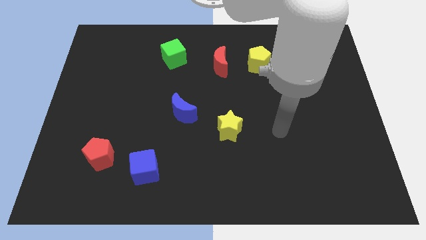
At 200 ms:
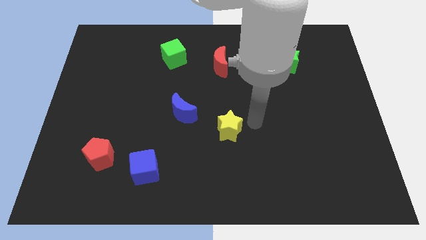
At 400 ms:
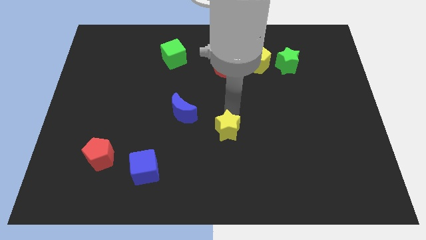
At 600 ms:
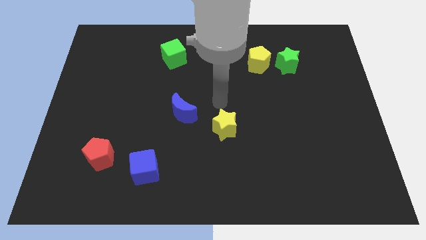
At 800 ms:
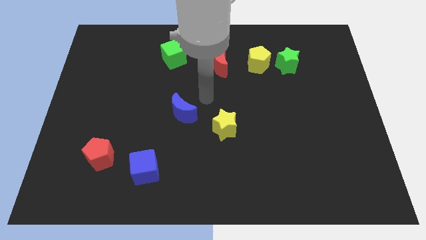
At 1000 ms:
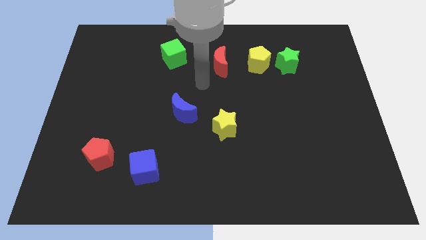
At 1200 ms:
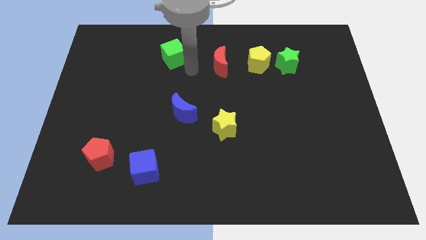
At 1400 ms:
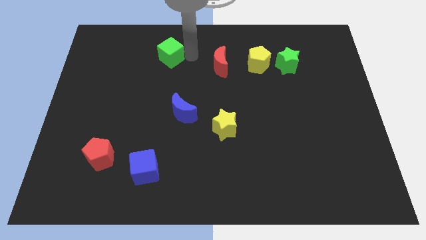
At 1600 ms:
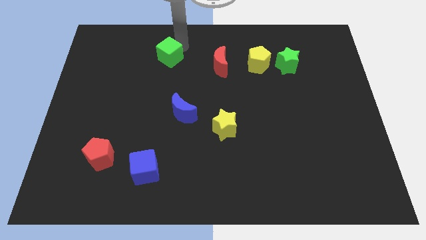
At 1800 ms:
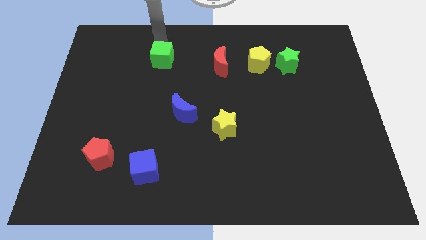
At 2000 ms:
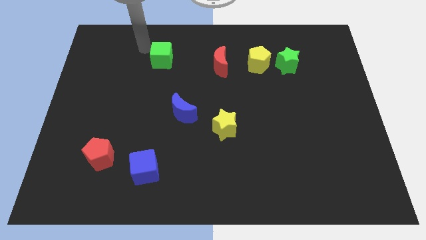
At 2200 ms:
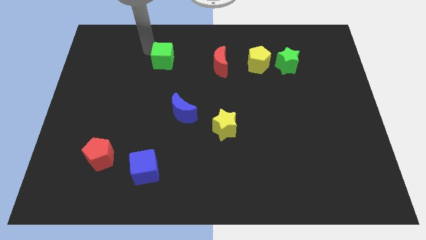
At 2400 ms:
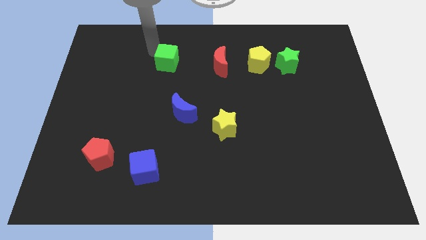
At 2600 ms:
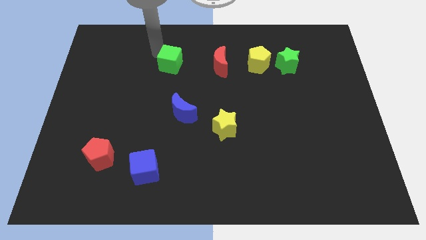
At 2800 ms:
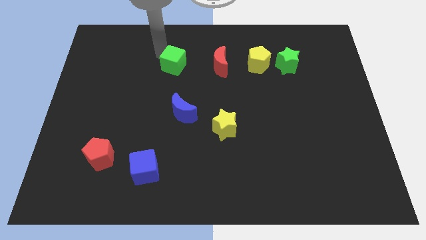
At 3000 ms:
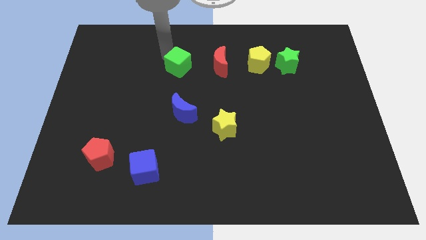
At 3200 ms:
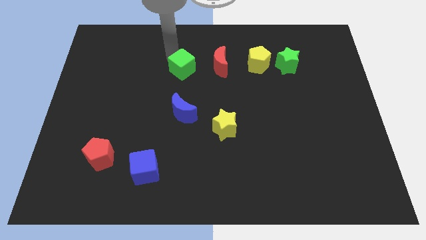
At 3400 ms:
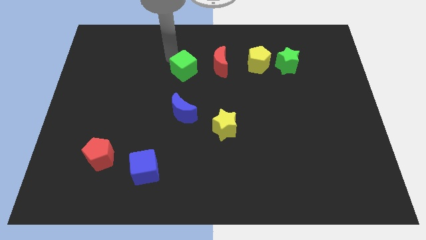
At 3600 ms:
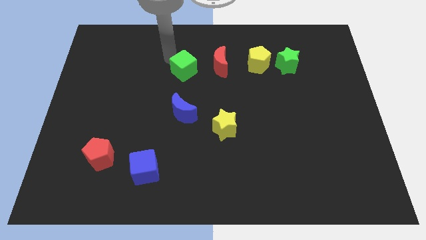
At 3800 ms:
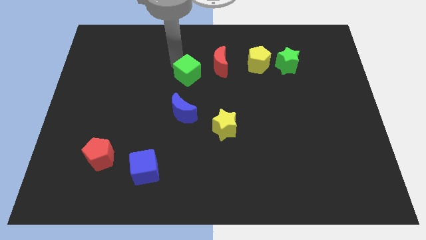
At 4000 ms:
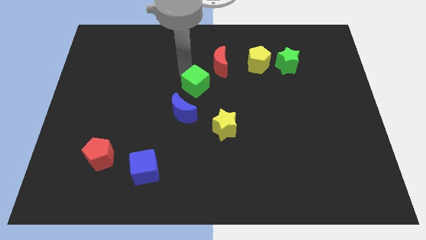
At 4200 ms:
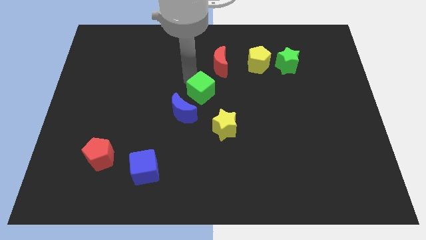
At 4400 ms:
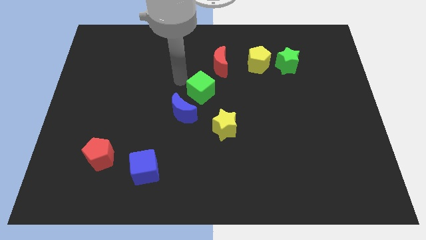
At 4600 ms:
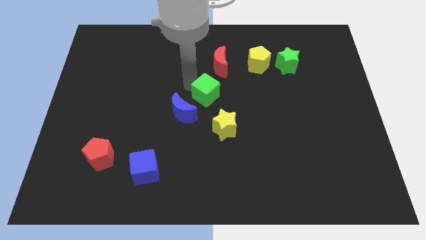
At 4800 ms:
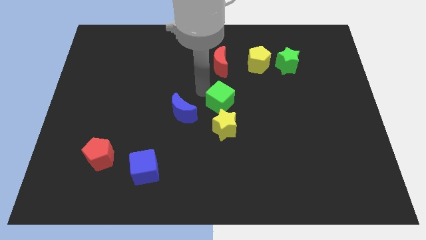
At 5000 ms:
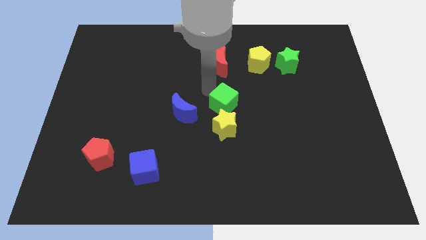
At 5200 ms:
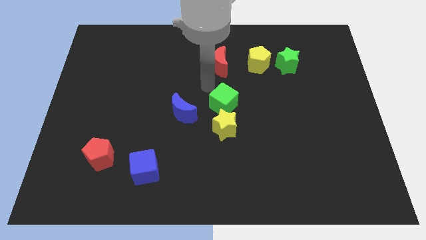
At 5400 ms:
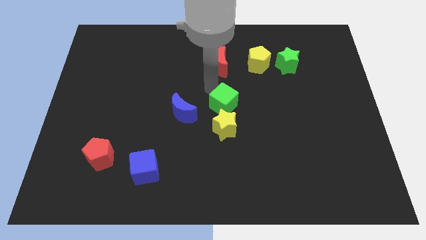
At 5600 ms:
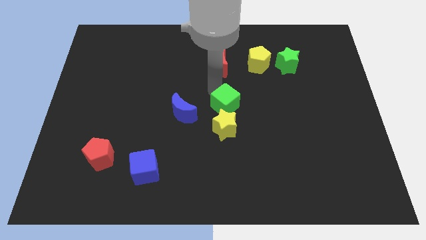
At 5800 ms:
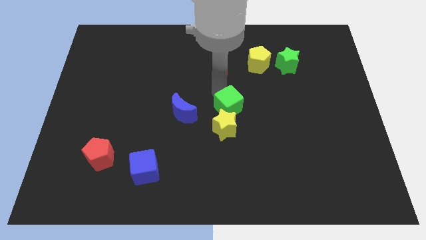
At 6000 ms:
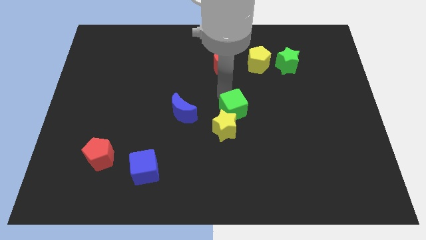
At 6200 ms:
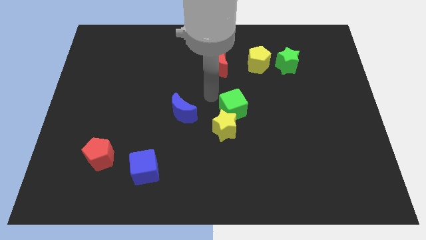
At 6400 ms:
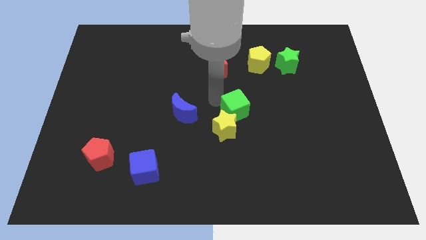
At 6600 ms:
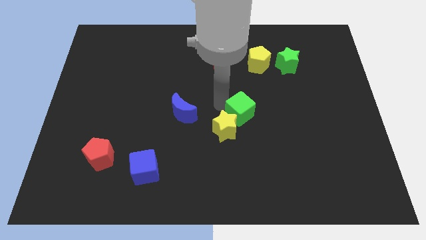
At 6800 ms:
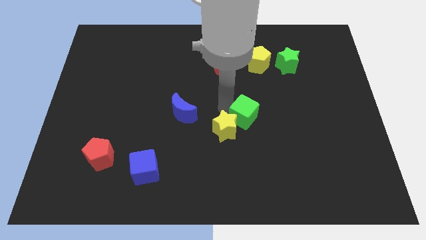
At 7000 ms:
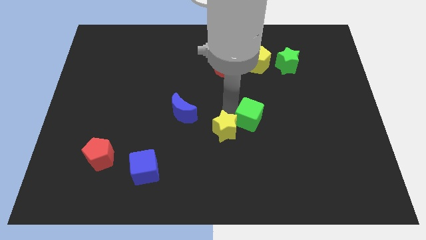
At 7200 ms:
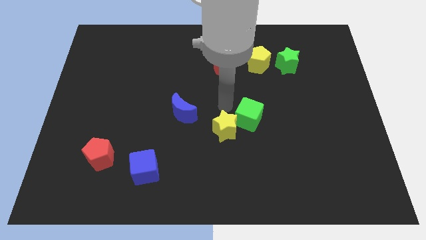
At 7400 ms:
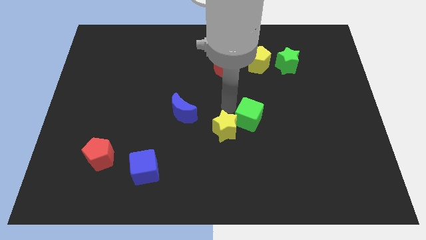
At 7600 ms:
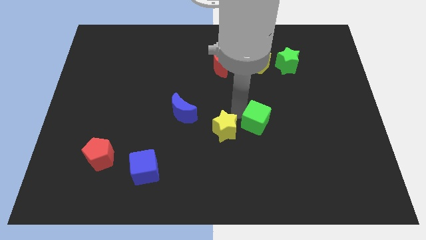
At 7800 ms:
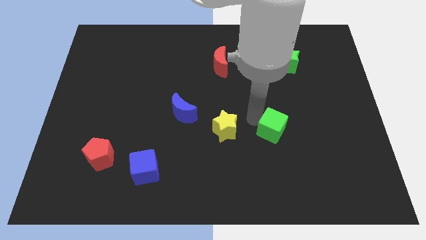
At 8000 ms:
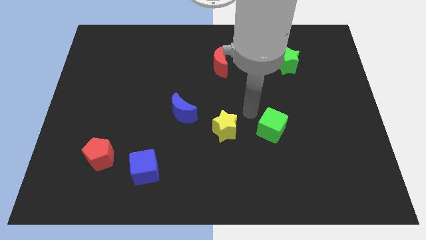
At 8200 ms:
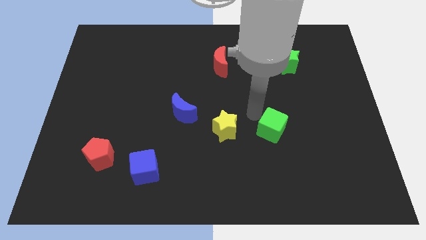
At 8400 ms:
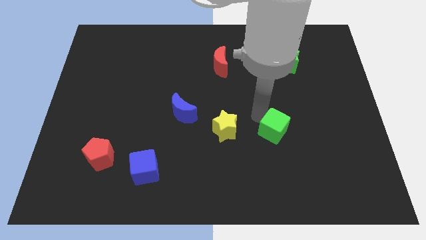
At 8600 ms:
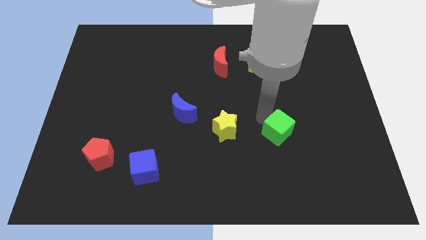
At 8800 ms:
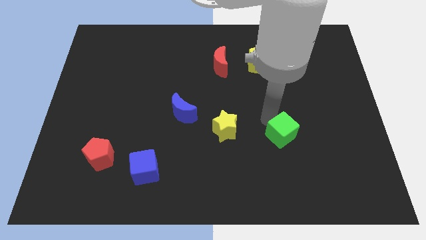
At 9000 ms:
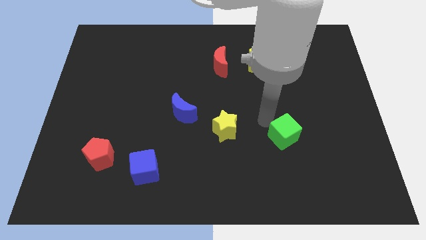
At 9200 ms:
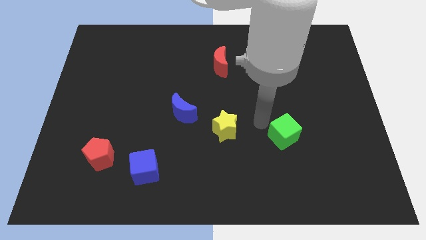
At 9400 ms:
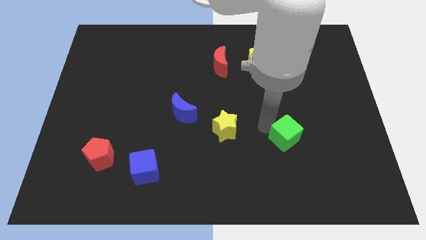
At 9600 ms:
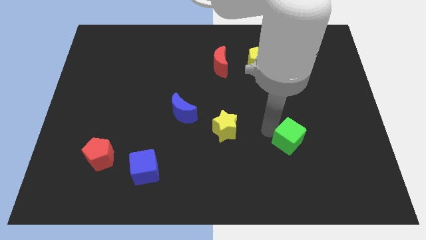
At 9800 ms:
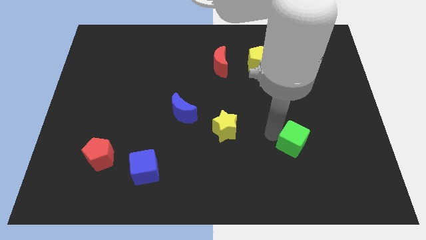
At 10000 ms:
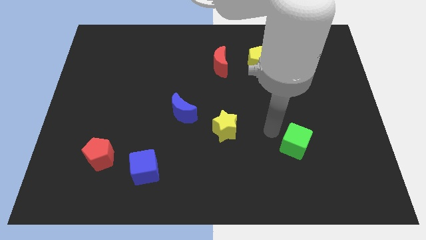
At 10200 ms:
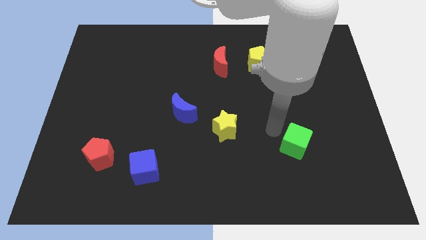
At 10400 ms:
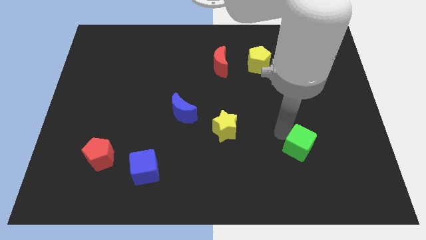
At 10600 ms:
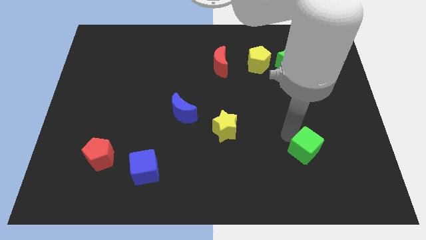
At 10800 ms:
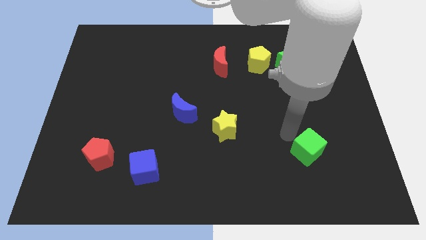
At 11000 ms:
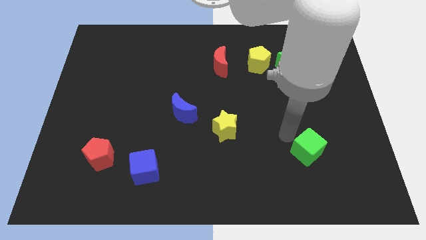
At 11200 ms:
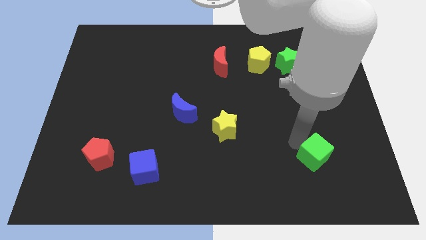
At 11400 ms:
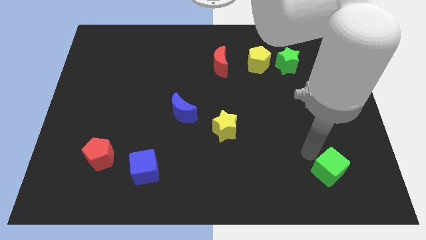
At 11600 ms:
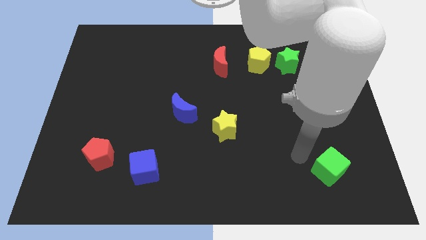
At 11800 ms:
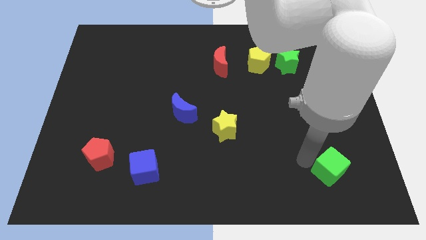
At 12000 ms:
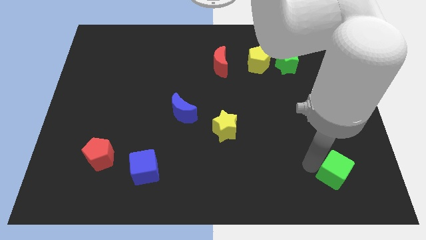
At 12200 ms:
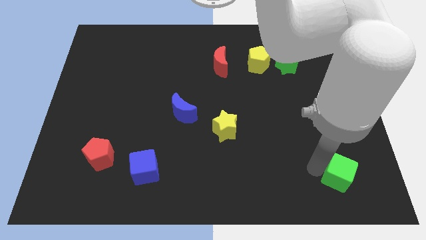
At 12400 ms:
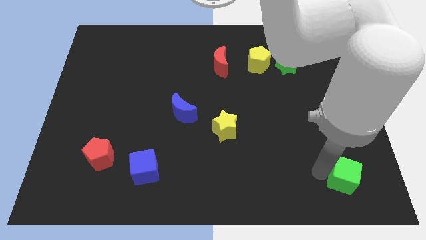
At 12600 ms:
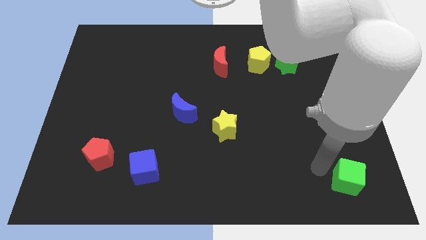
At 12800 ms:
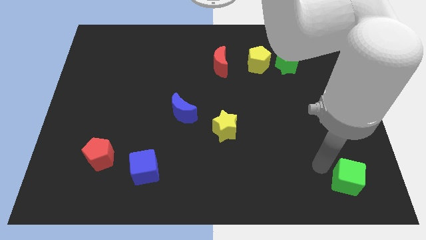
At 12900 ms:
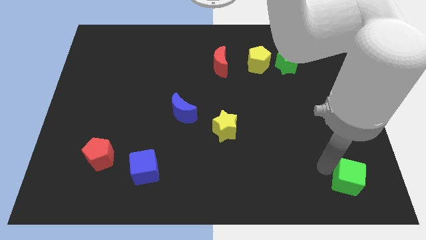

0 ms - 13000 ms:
move the green cube to the lower right corner
